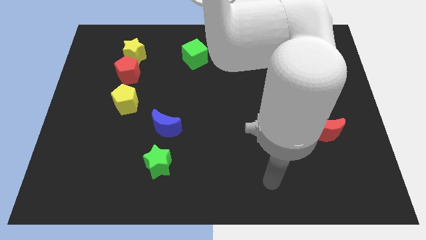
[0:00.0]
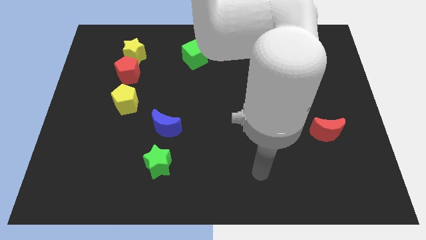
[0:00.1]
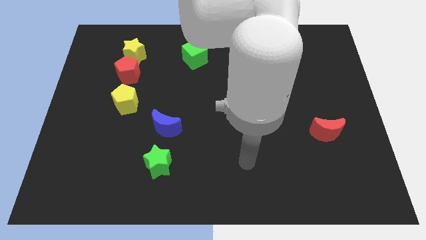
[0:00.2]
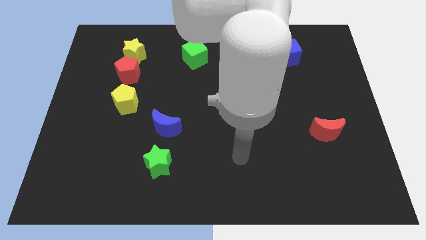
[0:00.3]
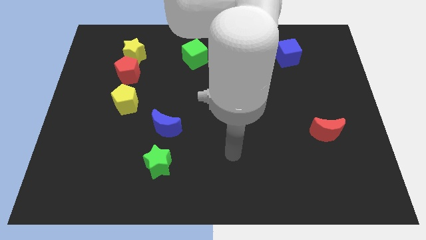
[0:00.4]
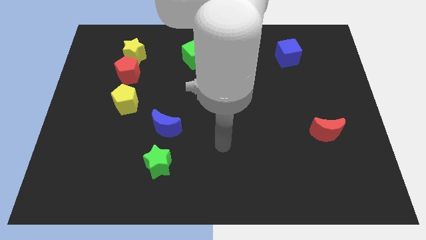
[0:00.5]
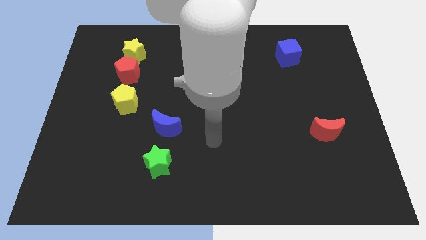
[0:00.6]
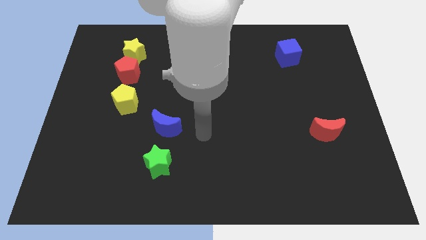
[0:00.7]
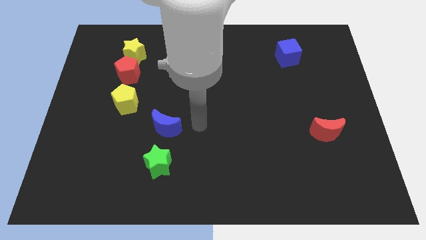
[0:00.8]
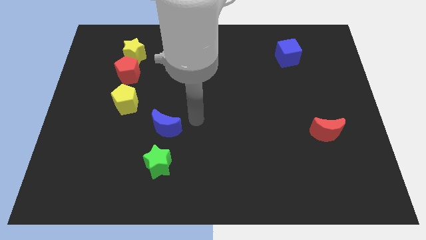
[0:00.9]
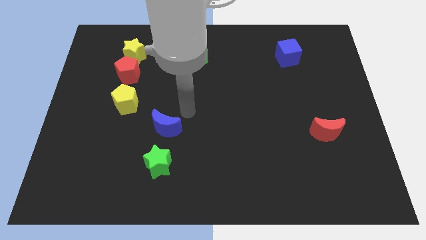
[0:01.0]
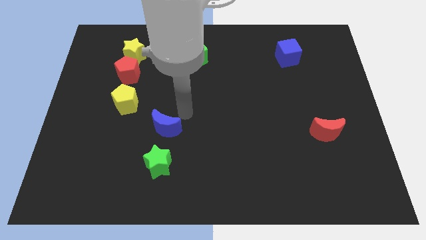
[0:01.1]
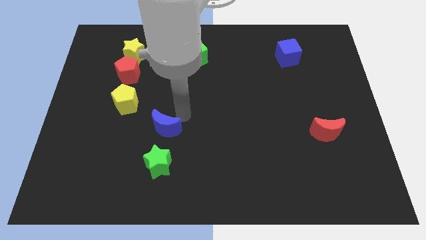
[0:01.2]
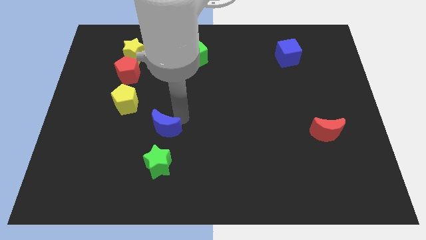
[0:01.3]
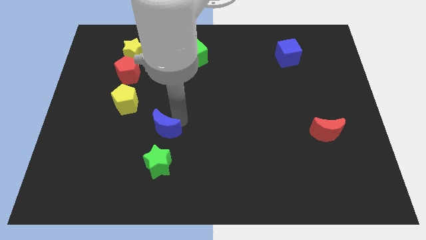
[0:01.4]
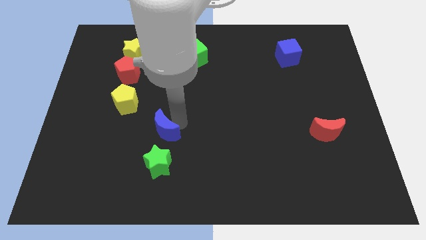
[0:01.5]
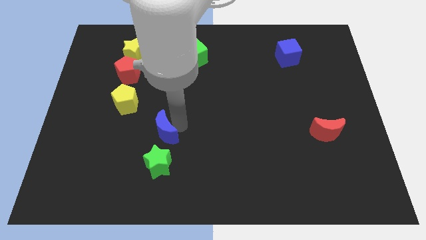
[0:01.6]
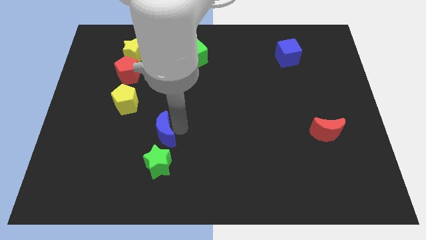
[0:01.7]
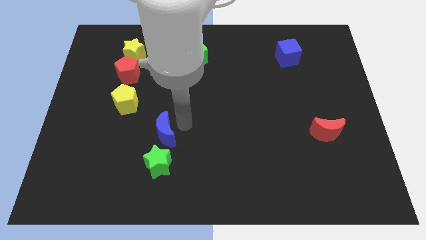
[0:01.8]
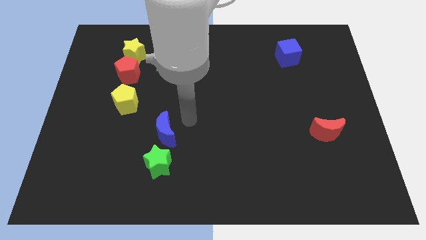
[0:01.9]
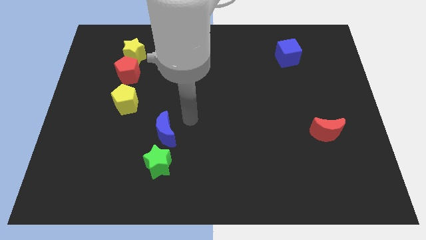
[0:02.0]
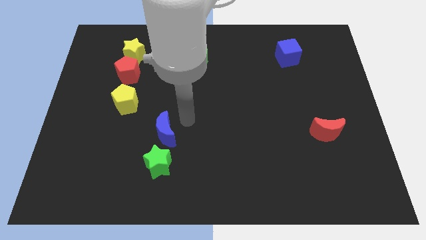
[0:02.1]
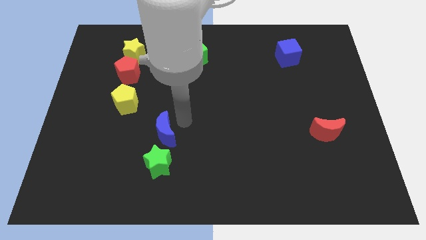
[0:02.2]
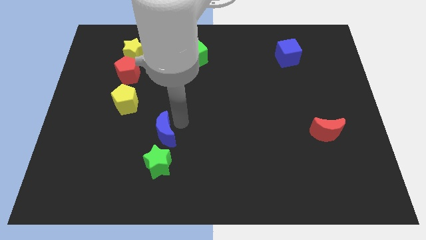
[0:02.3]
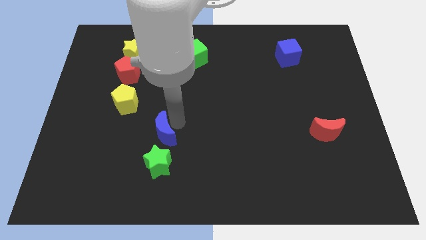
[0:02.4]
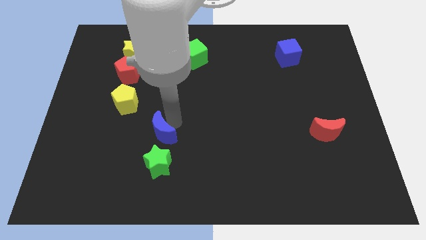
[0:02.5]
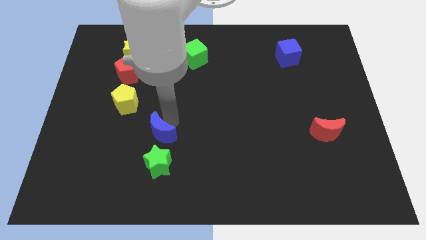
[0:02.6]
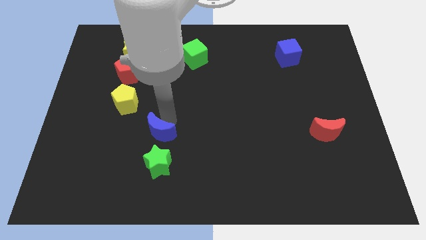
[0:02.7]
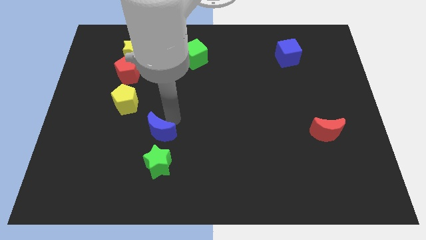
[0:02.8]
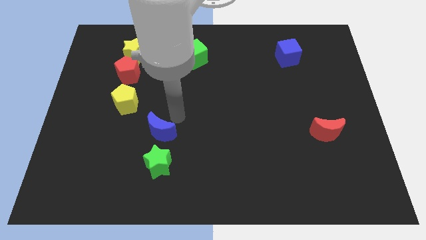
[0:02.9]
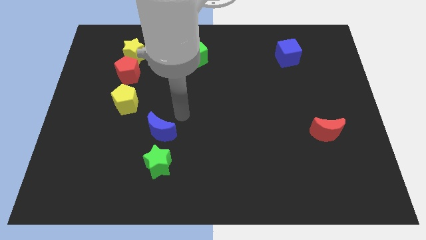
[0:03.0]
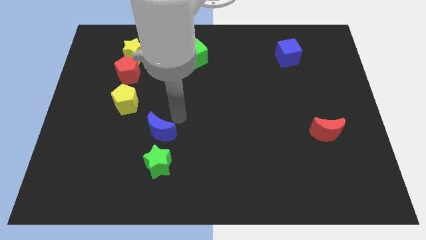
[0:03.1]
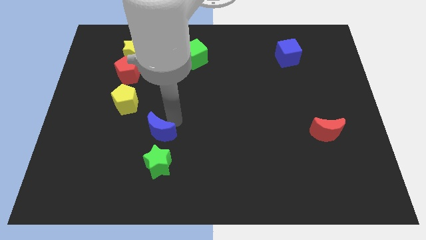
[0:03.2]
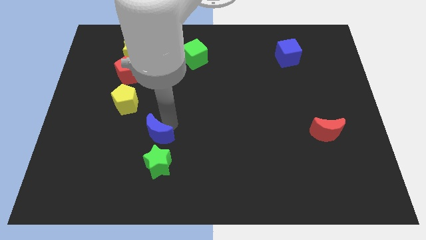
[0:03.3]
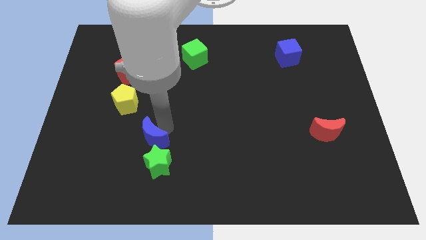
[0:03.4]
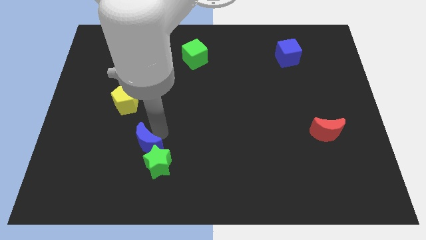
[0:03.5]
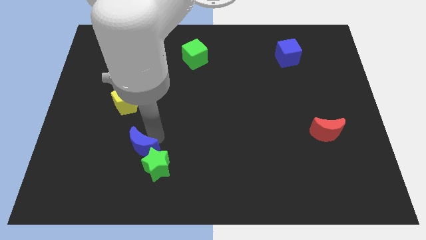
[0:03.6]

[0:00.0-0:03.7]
slide the blue moon a little bit downwards and left diagonally

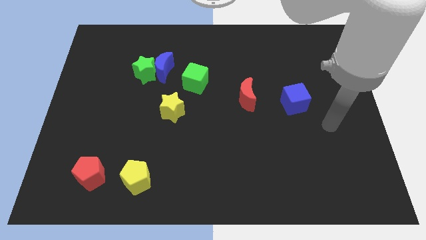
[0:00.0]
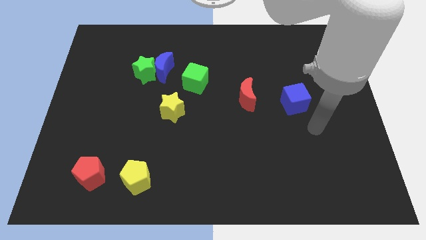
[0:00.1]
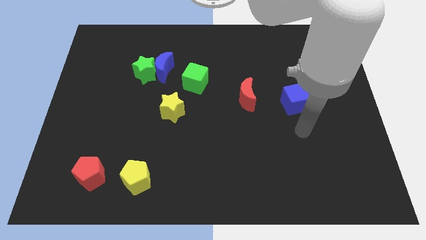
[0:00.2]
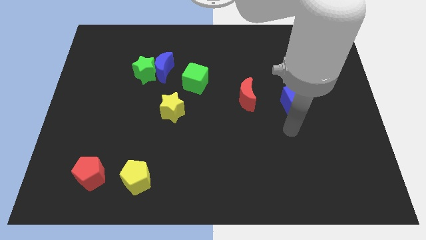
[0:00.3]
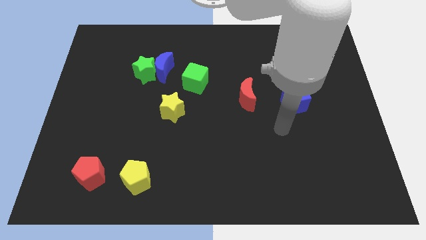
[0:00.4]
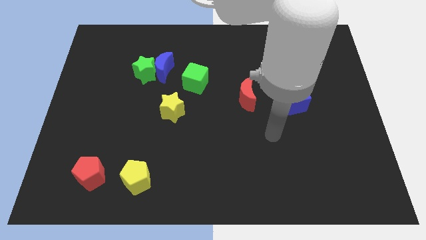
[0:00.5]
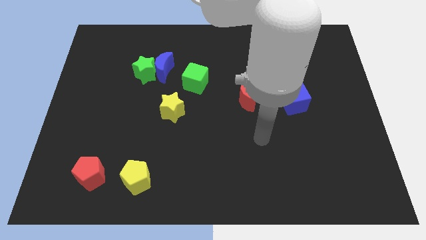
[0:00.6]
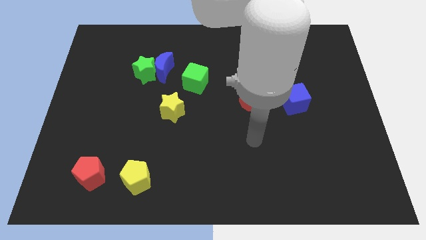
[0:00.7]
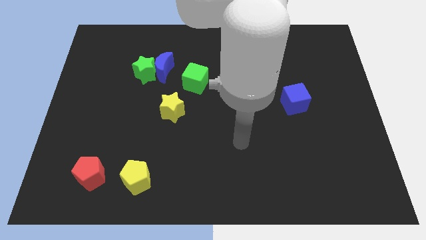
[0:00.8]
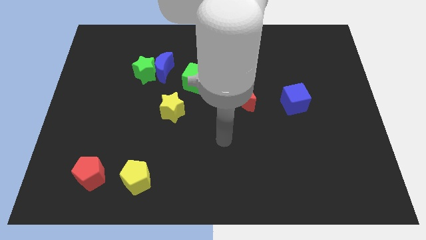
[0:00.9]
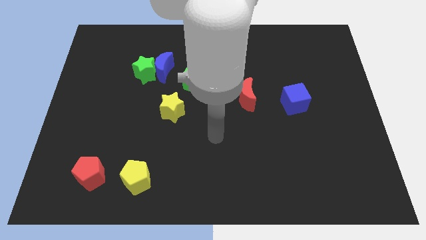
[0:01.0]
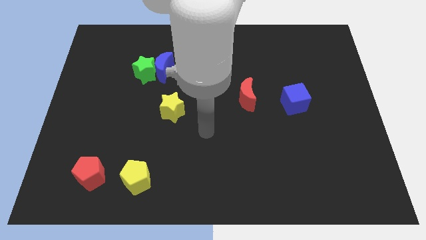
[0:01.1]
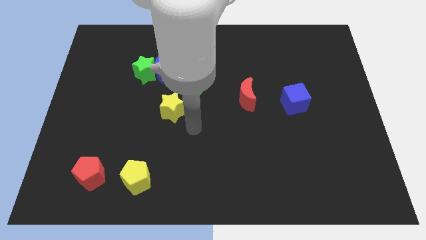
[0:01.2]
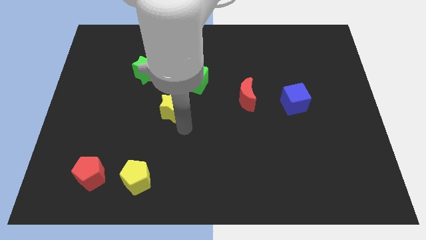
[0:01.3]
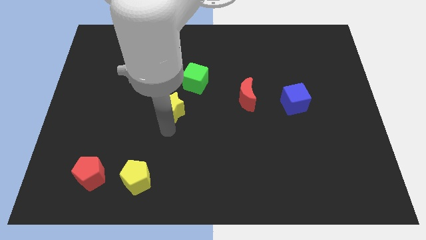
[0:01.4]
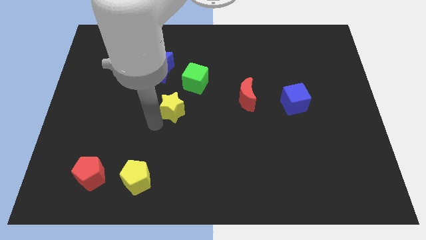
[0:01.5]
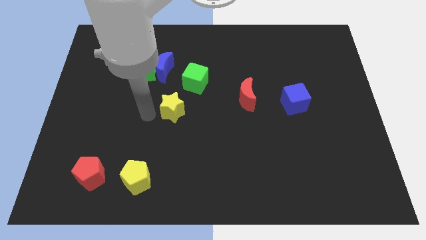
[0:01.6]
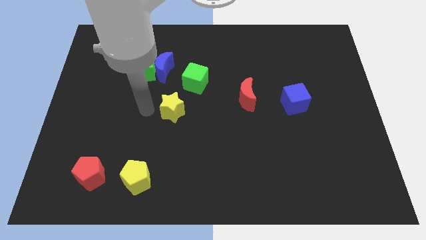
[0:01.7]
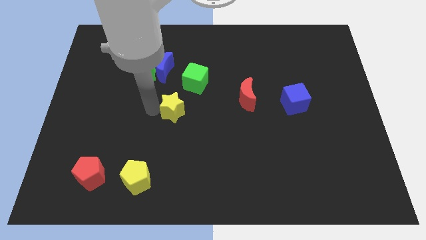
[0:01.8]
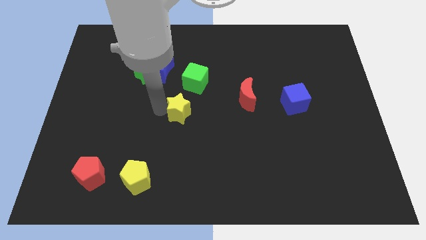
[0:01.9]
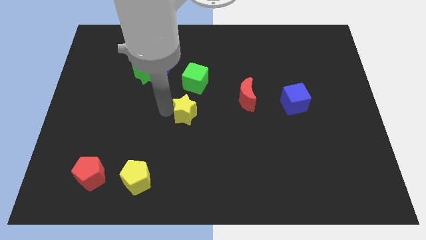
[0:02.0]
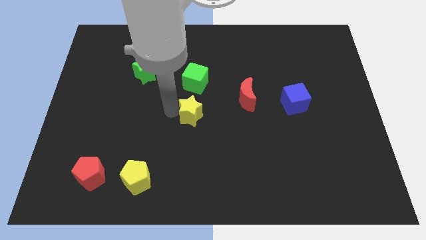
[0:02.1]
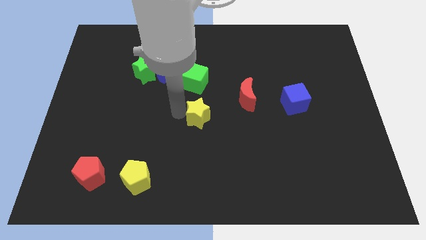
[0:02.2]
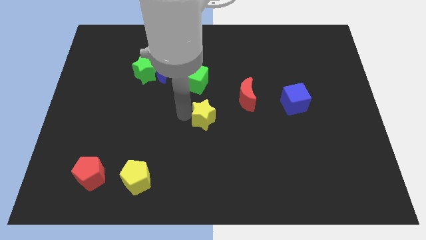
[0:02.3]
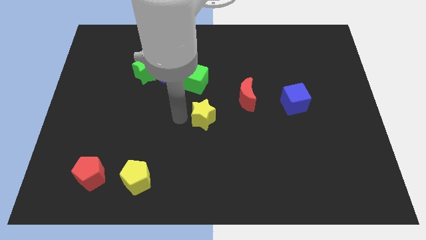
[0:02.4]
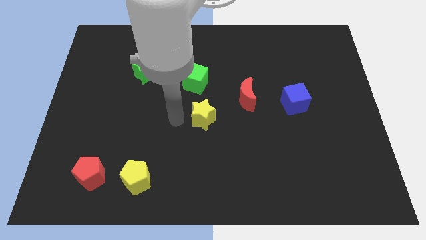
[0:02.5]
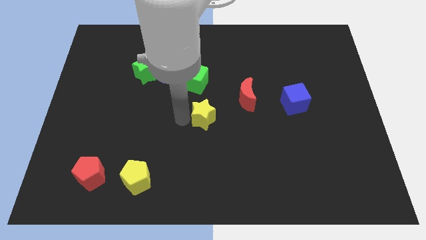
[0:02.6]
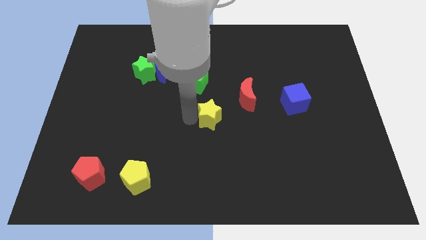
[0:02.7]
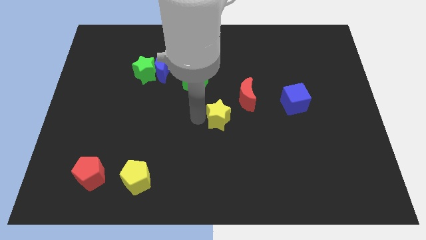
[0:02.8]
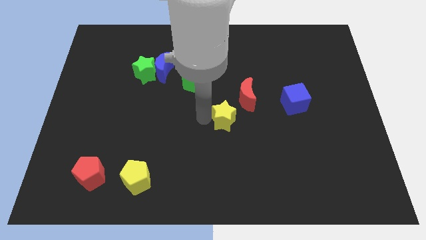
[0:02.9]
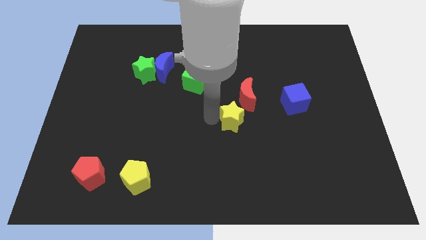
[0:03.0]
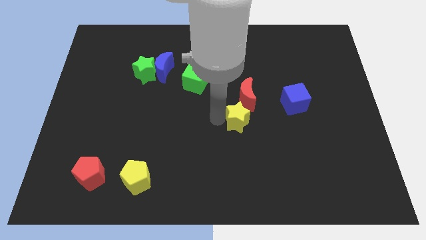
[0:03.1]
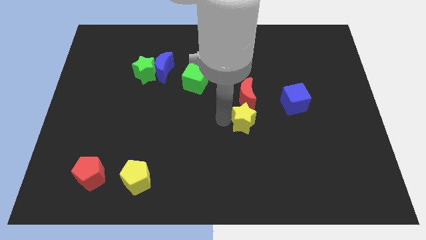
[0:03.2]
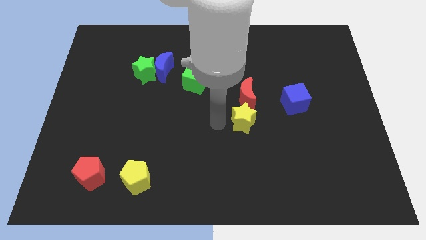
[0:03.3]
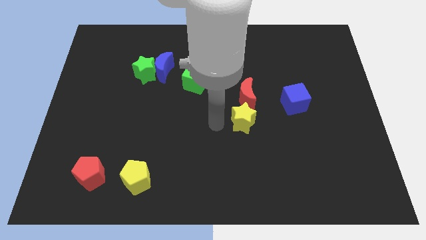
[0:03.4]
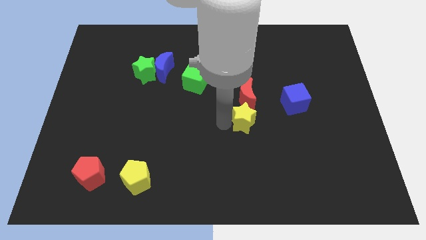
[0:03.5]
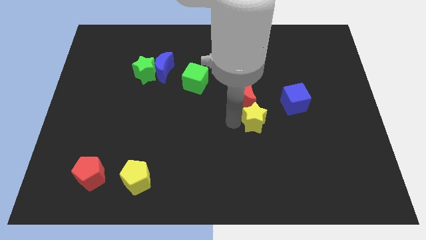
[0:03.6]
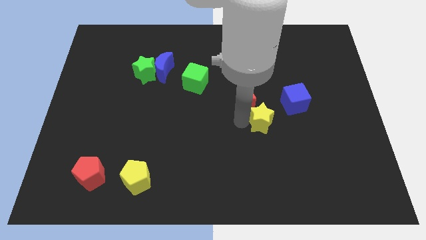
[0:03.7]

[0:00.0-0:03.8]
push the yellow star to the right

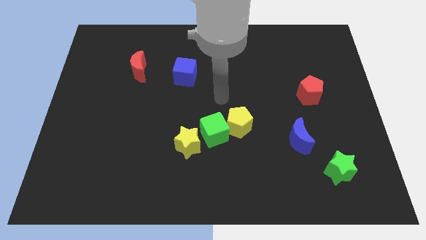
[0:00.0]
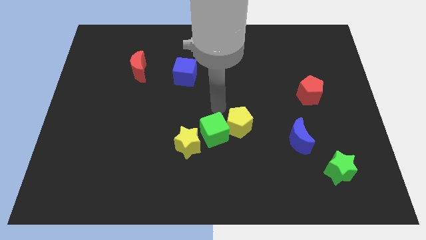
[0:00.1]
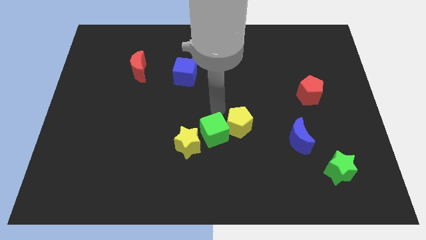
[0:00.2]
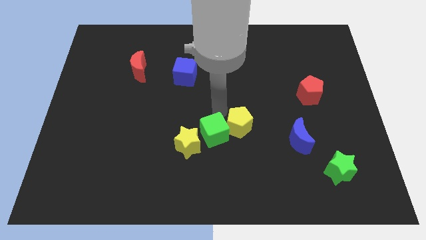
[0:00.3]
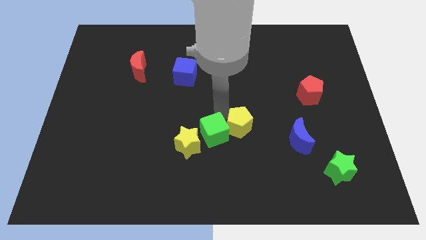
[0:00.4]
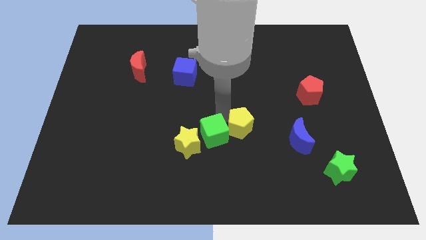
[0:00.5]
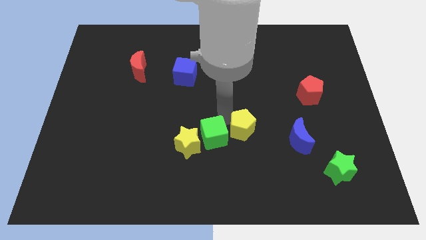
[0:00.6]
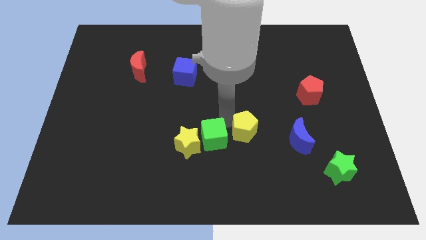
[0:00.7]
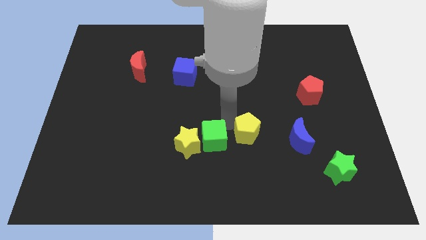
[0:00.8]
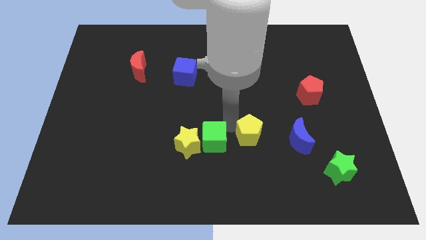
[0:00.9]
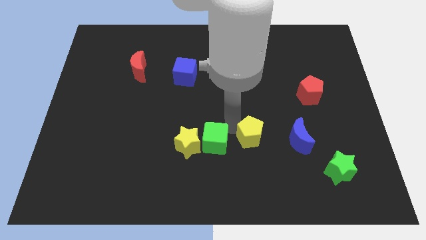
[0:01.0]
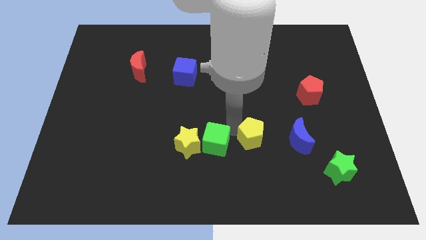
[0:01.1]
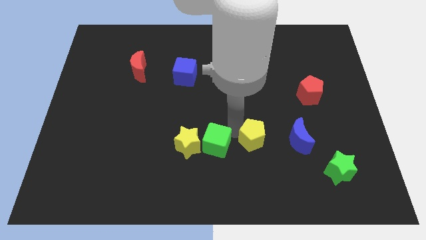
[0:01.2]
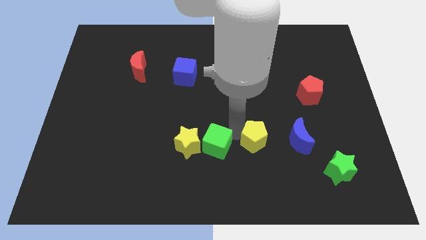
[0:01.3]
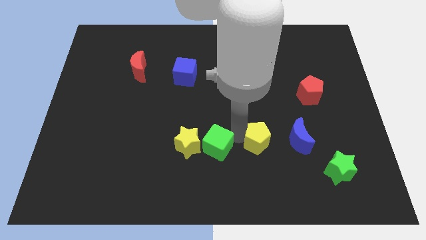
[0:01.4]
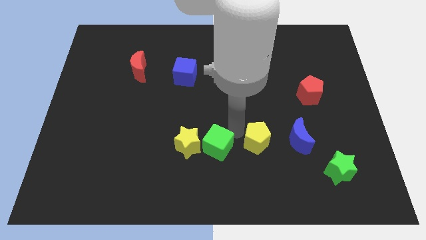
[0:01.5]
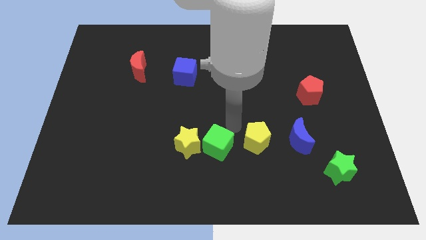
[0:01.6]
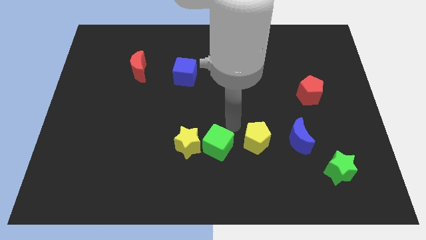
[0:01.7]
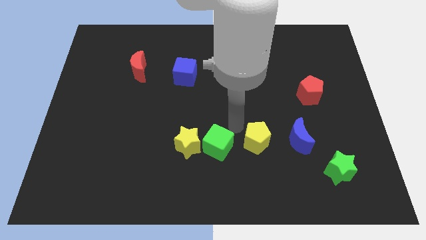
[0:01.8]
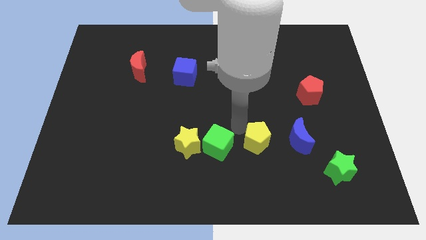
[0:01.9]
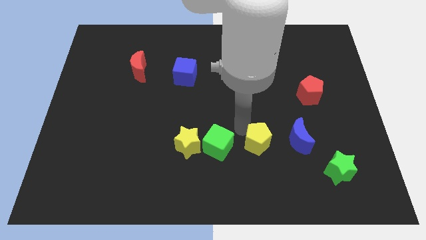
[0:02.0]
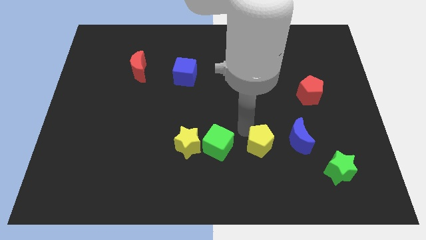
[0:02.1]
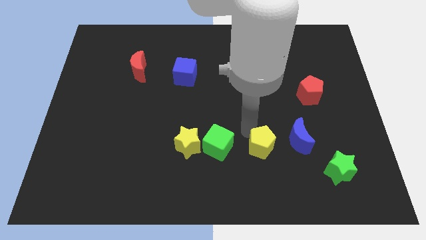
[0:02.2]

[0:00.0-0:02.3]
move the yellow pentagon a little bit diagonally down and to the right
